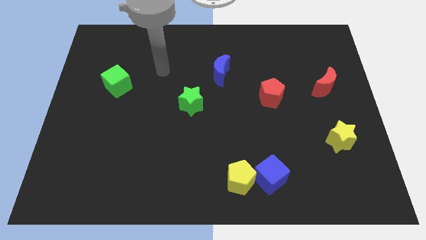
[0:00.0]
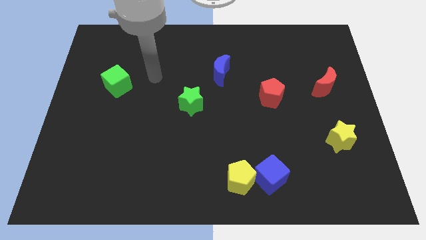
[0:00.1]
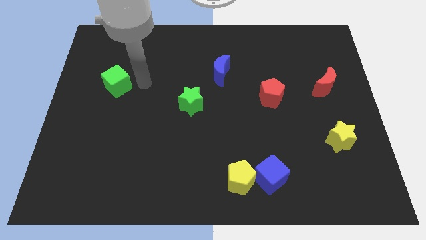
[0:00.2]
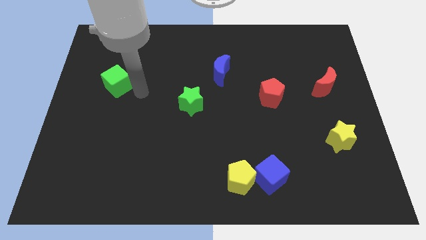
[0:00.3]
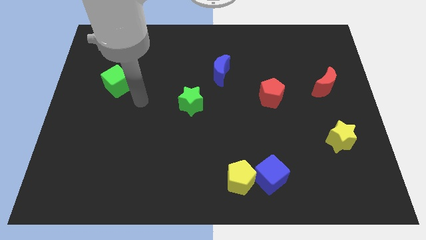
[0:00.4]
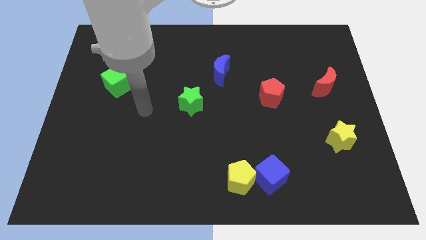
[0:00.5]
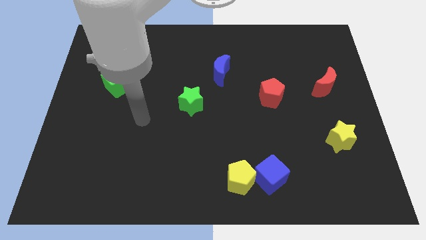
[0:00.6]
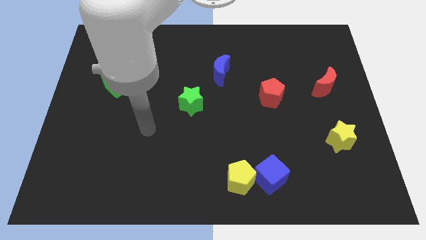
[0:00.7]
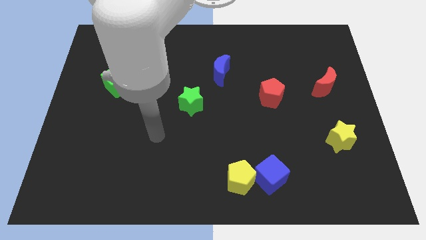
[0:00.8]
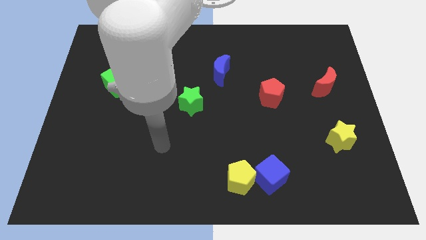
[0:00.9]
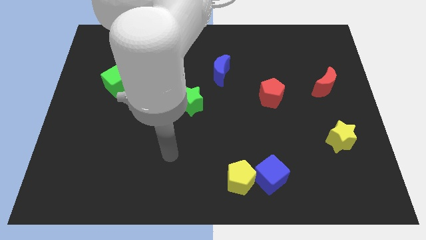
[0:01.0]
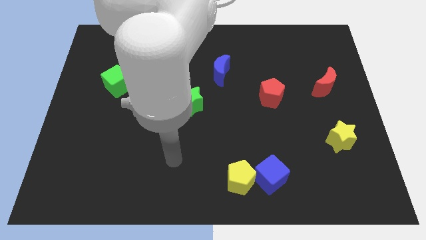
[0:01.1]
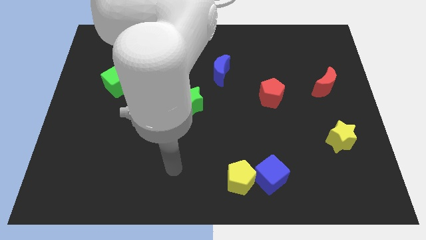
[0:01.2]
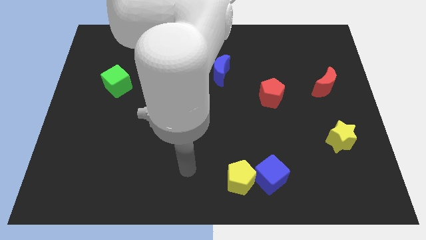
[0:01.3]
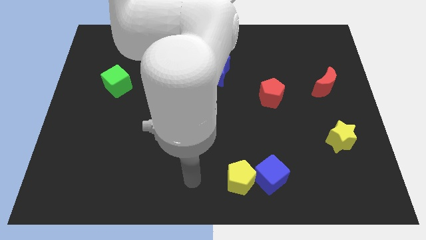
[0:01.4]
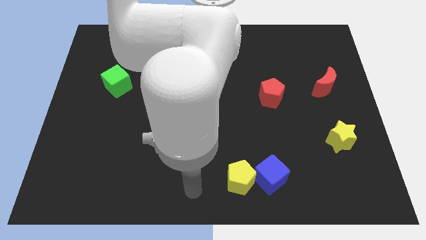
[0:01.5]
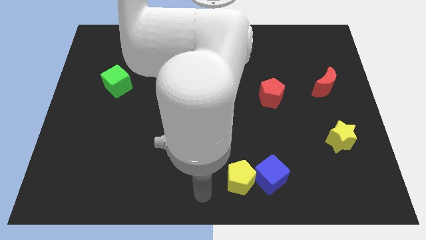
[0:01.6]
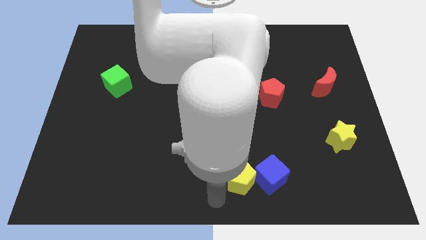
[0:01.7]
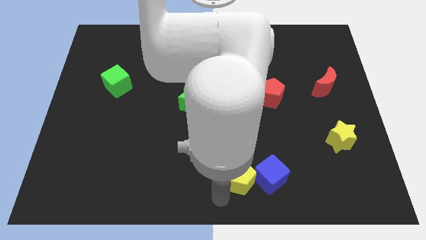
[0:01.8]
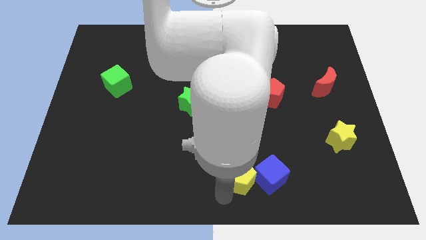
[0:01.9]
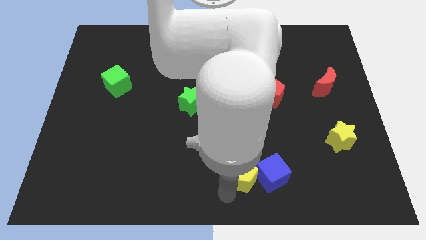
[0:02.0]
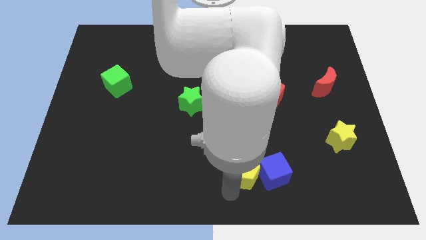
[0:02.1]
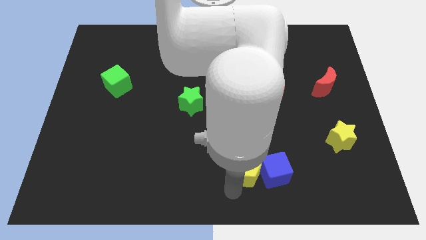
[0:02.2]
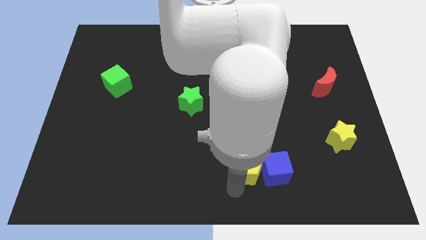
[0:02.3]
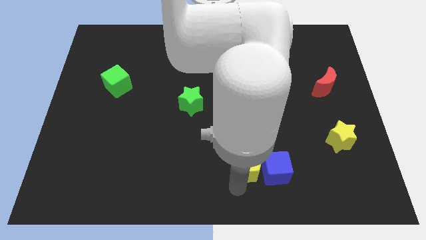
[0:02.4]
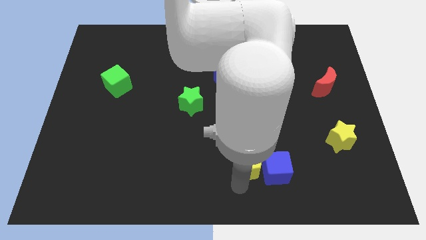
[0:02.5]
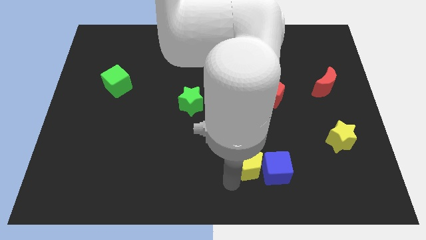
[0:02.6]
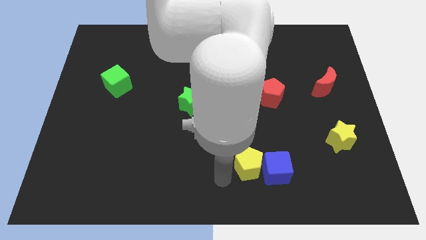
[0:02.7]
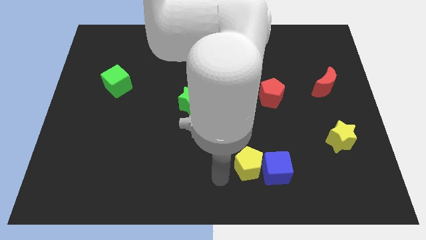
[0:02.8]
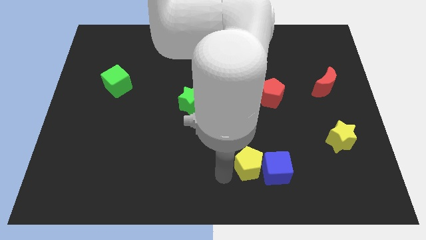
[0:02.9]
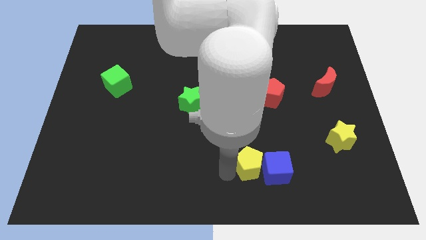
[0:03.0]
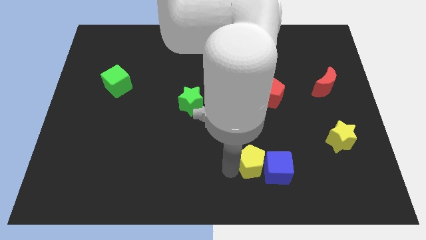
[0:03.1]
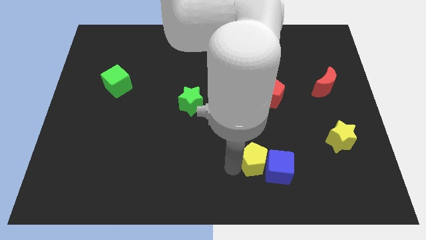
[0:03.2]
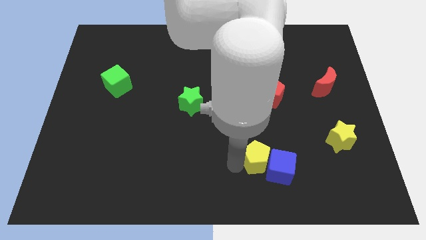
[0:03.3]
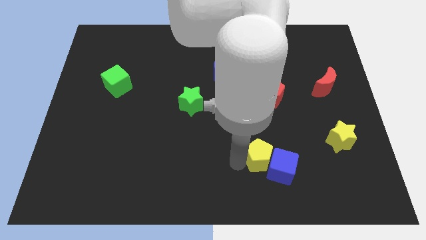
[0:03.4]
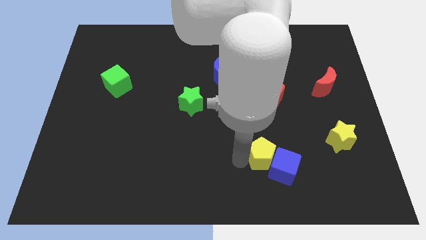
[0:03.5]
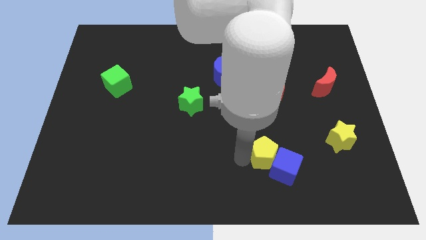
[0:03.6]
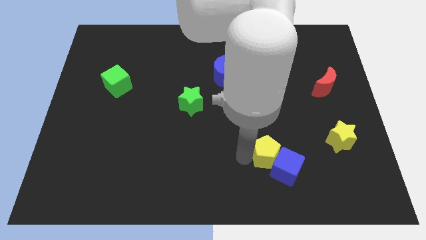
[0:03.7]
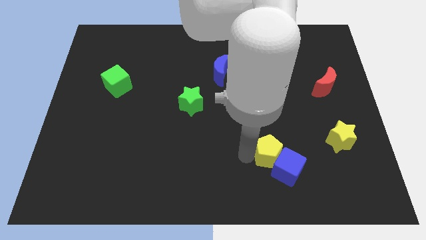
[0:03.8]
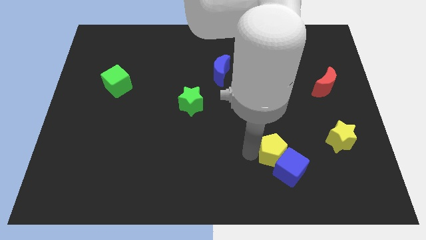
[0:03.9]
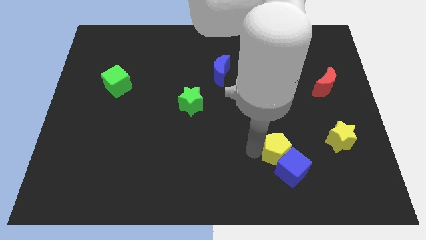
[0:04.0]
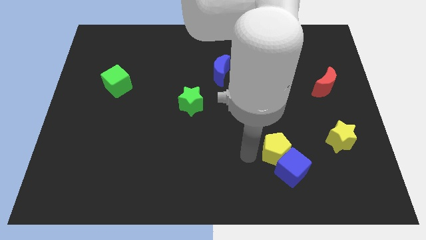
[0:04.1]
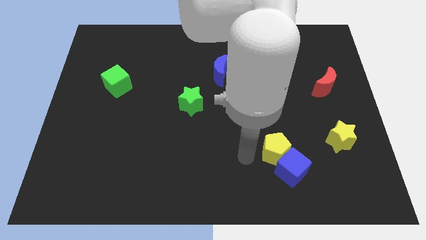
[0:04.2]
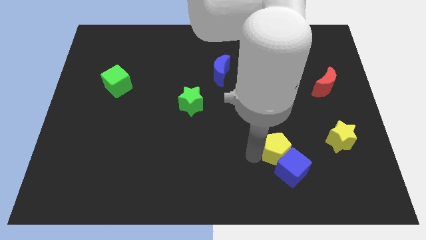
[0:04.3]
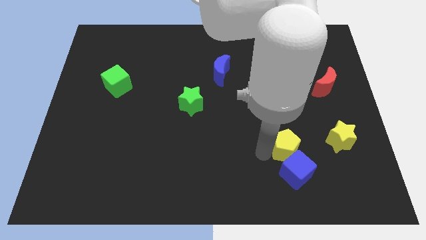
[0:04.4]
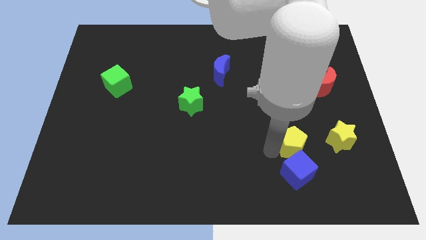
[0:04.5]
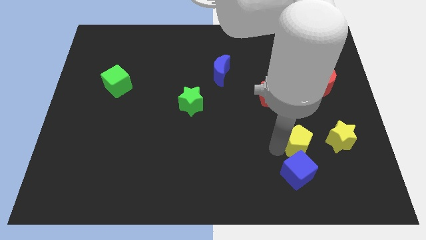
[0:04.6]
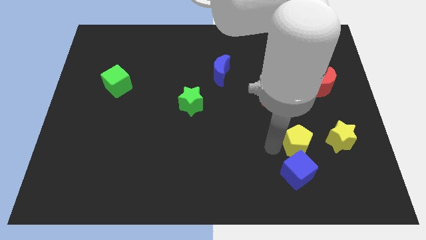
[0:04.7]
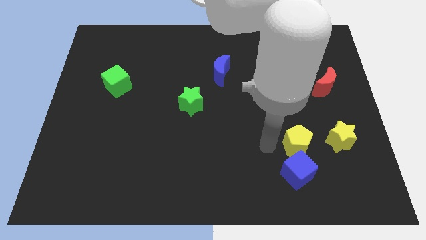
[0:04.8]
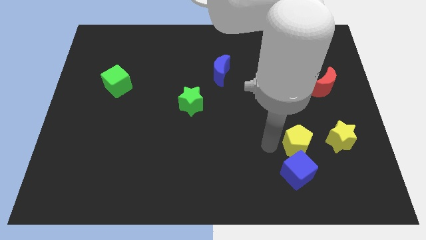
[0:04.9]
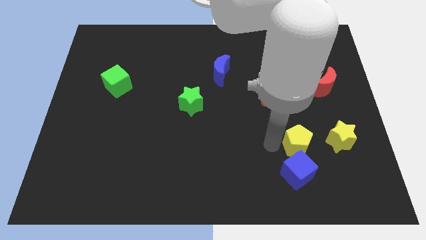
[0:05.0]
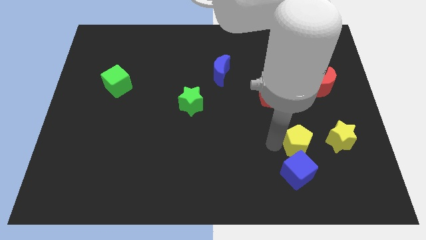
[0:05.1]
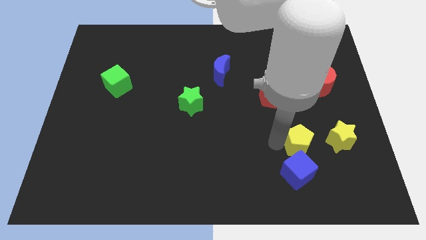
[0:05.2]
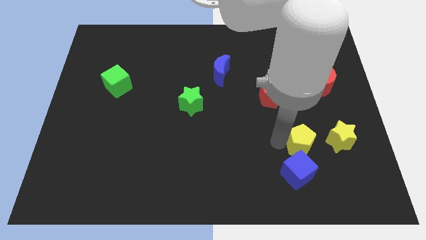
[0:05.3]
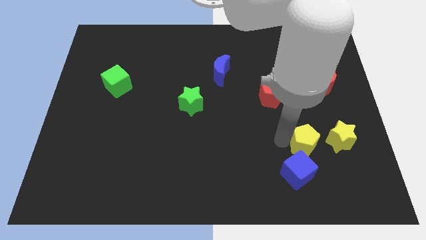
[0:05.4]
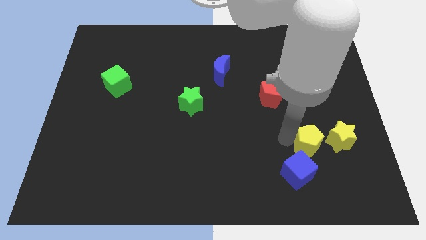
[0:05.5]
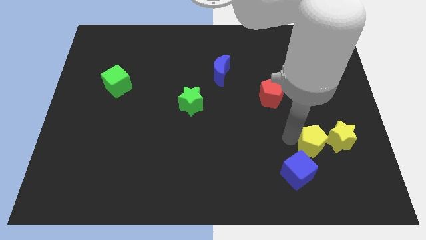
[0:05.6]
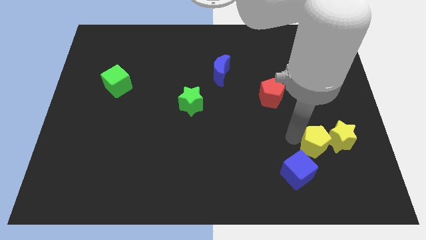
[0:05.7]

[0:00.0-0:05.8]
slide the yellow pentagon towards the yellow star
